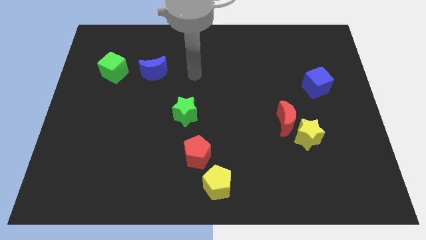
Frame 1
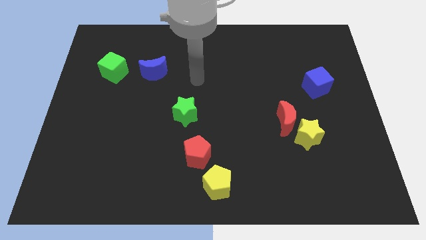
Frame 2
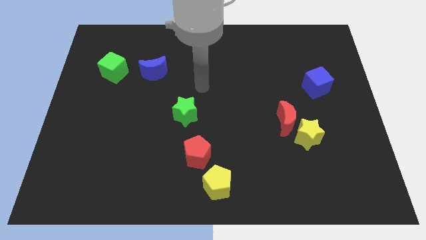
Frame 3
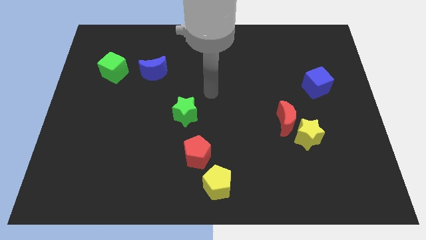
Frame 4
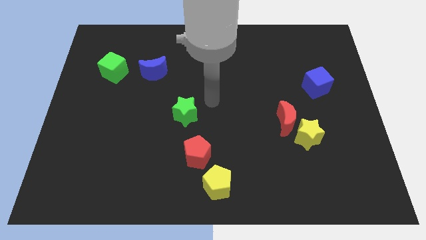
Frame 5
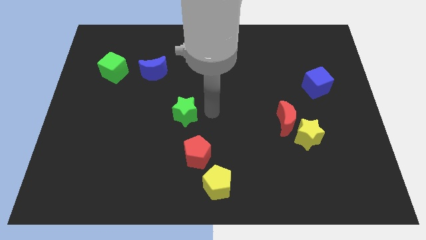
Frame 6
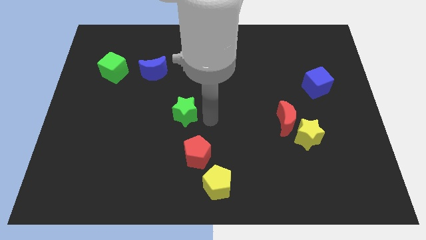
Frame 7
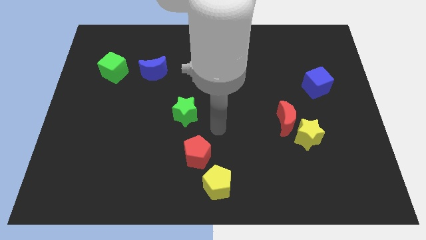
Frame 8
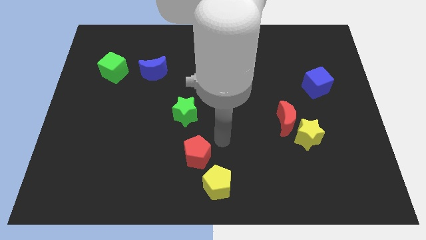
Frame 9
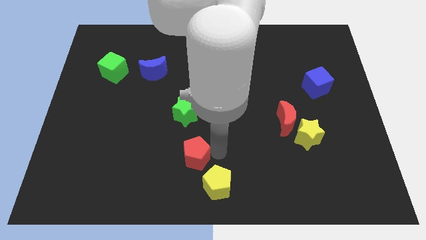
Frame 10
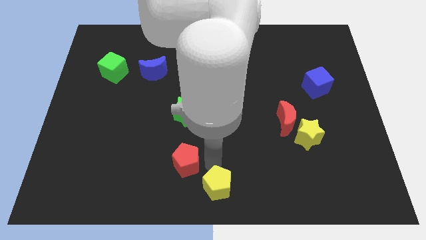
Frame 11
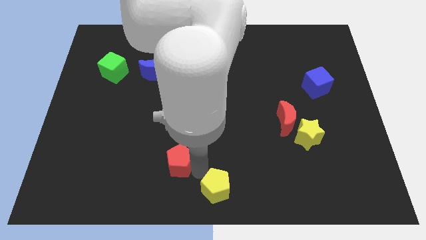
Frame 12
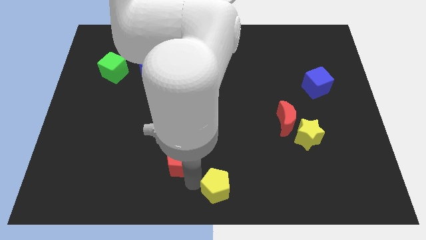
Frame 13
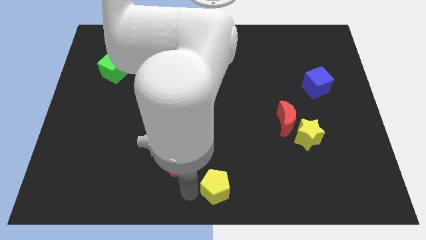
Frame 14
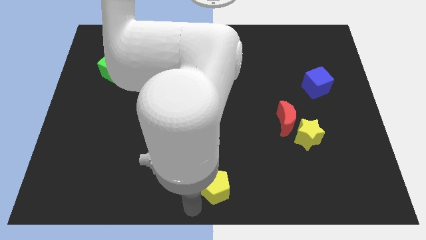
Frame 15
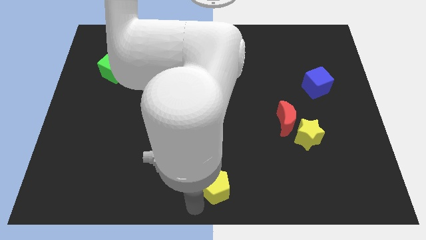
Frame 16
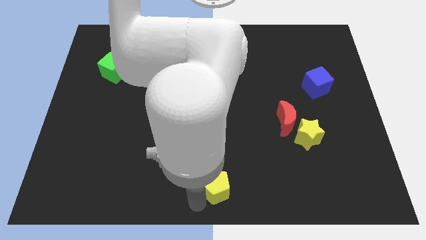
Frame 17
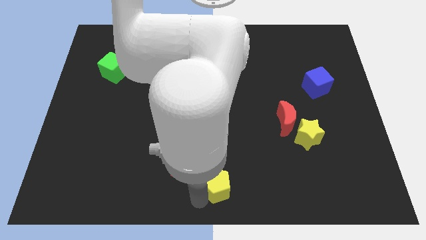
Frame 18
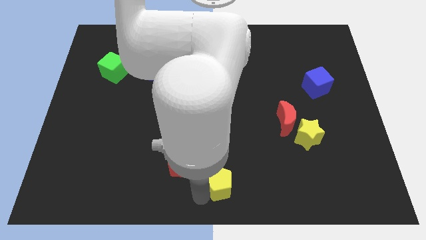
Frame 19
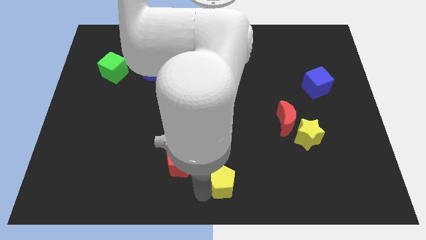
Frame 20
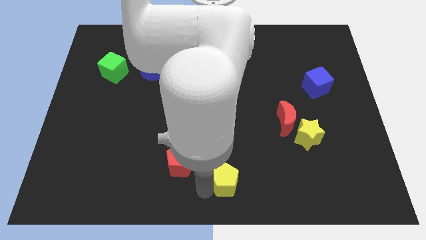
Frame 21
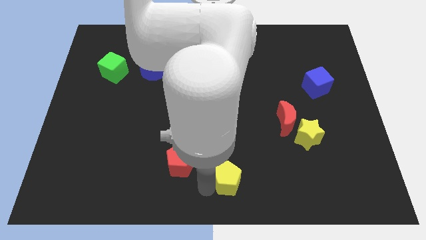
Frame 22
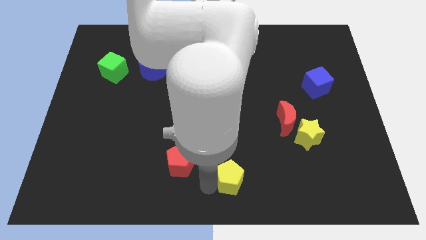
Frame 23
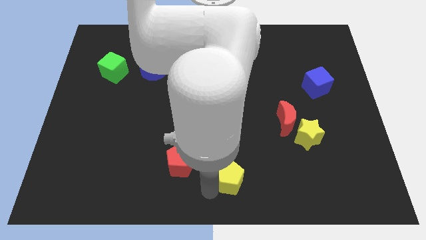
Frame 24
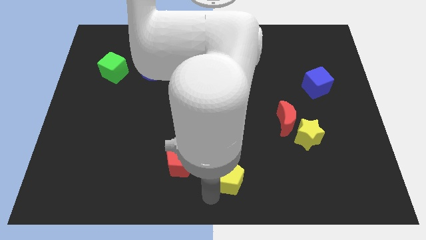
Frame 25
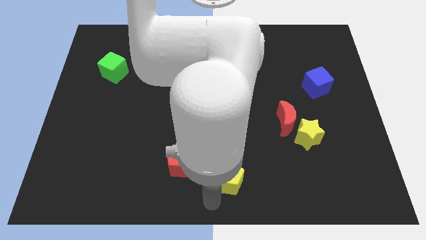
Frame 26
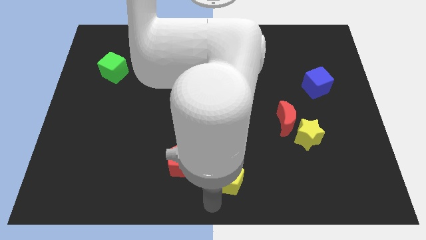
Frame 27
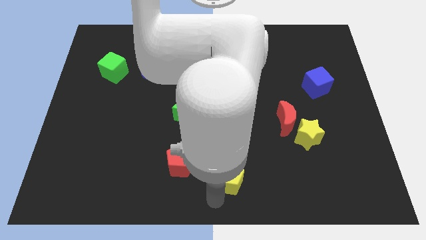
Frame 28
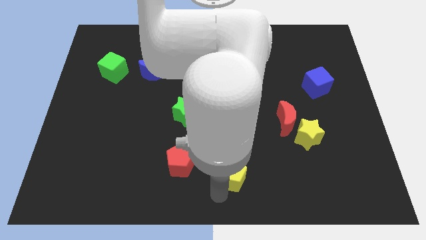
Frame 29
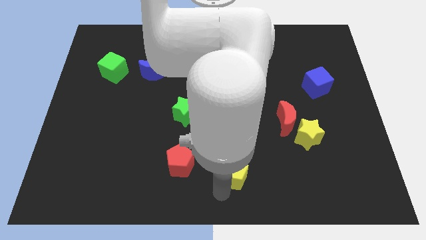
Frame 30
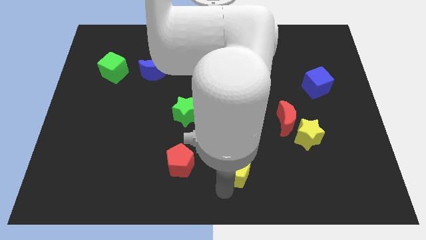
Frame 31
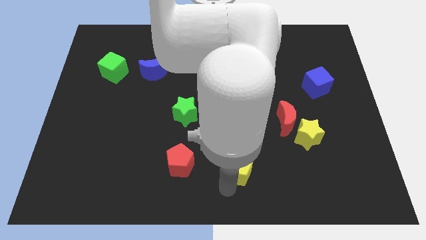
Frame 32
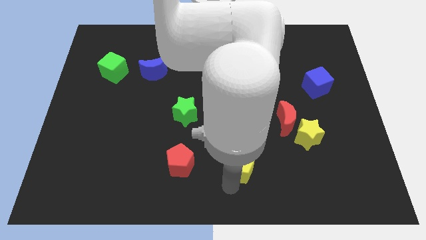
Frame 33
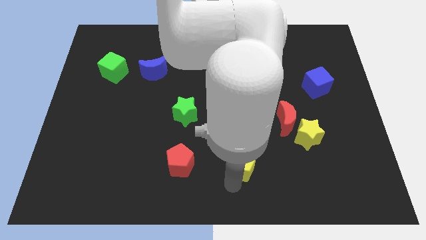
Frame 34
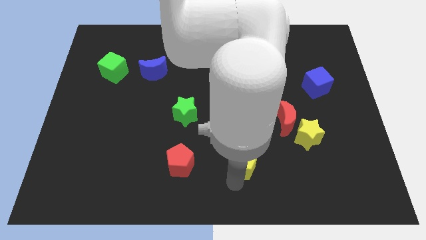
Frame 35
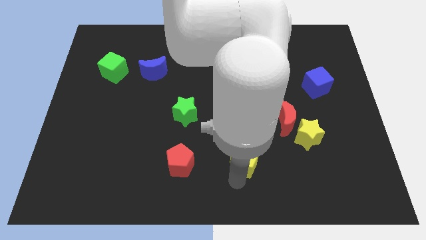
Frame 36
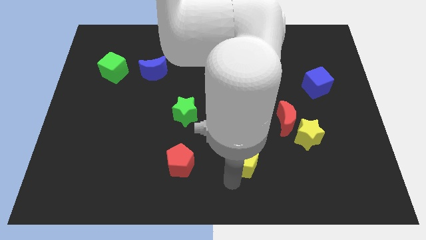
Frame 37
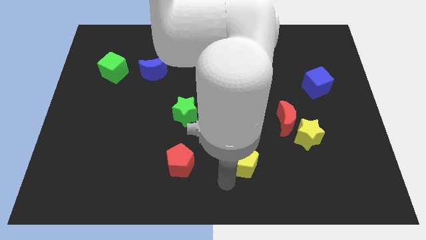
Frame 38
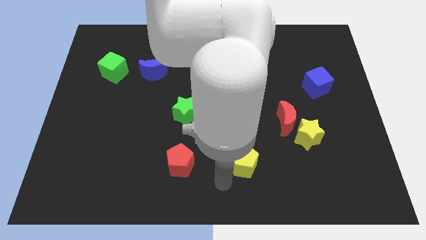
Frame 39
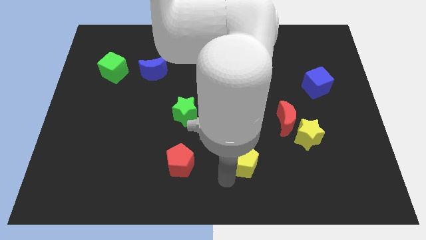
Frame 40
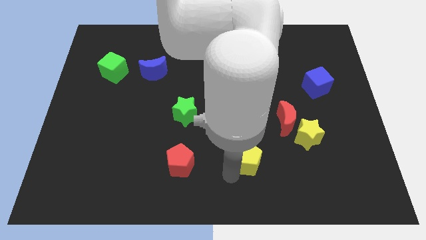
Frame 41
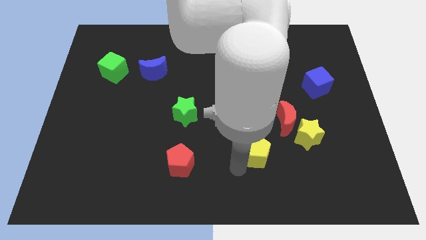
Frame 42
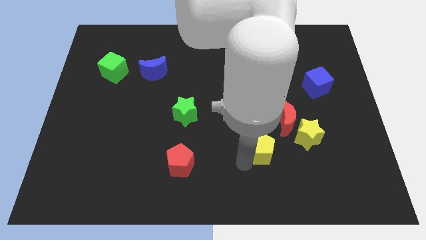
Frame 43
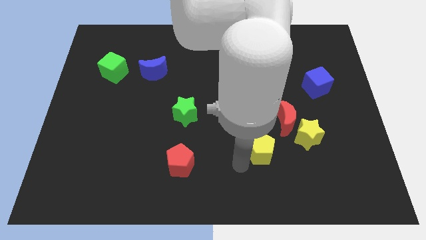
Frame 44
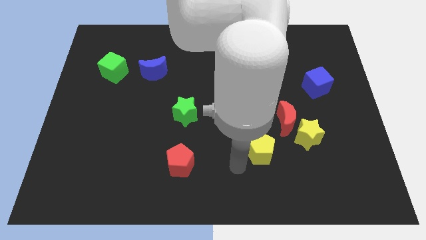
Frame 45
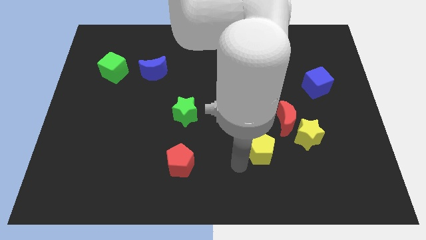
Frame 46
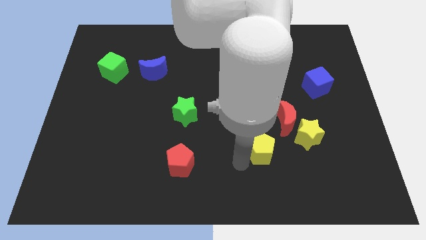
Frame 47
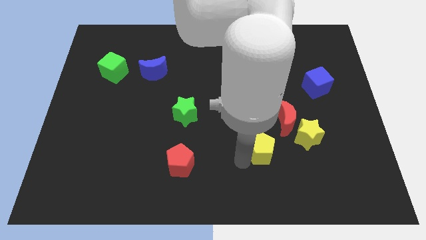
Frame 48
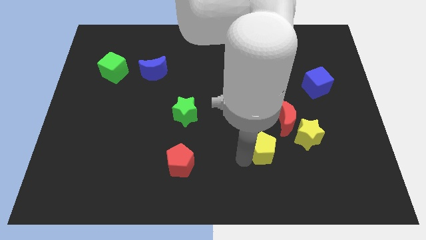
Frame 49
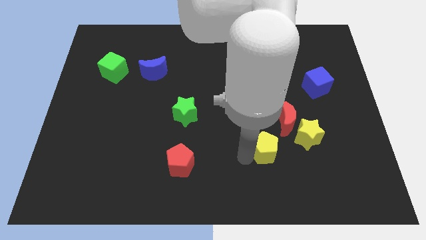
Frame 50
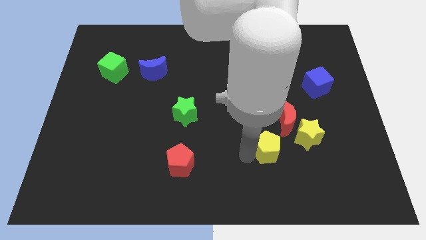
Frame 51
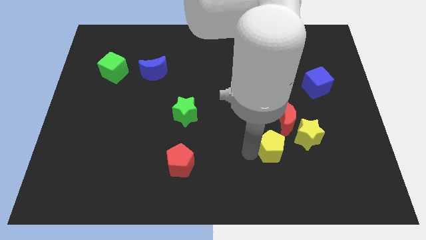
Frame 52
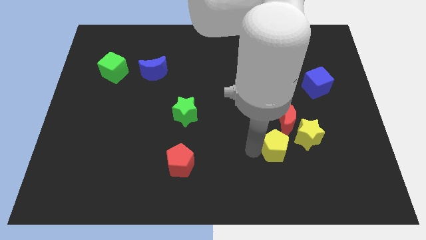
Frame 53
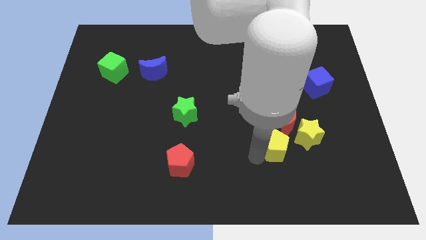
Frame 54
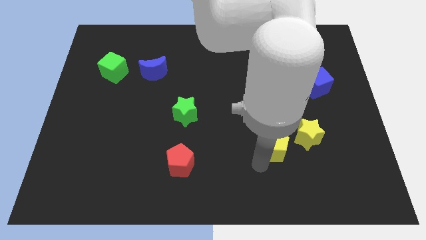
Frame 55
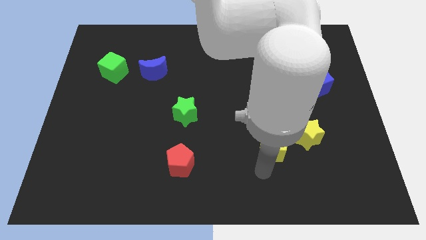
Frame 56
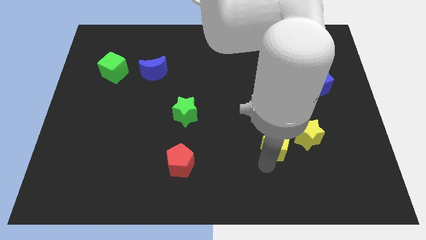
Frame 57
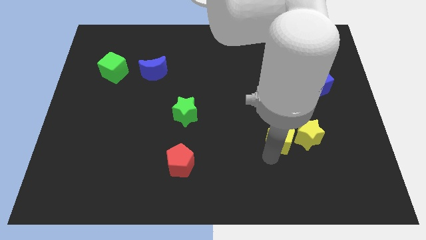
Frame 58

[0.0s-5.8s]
push the yellow pentagon to the red moon

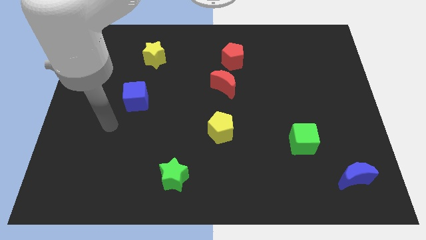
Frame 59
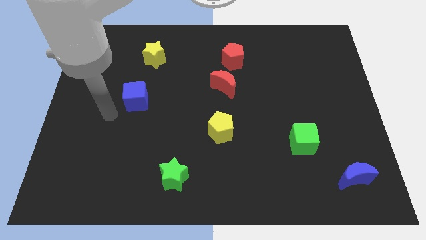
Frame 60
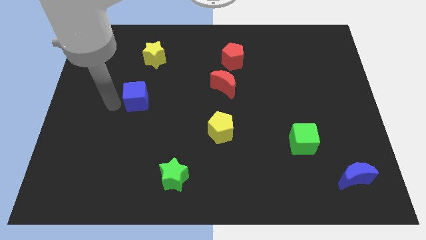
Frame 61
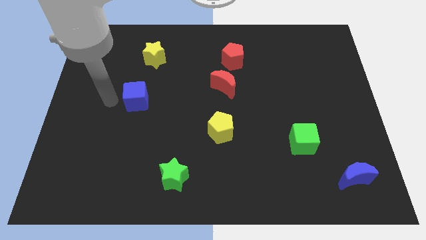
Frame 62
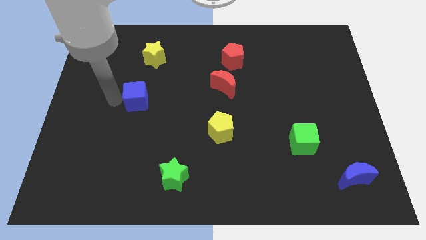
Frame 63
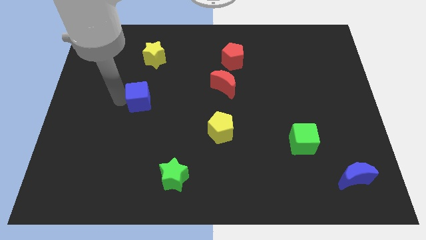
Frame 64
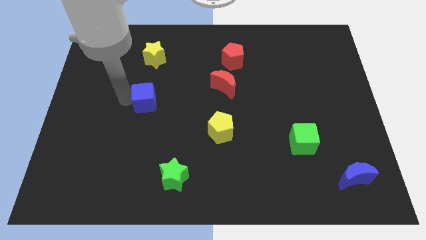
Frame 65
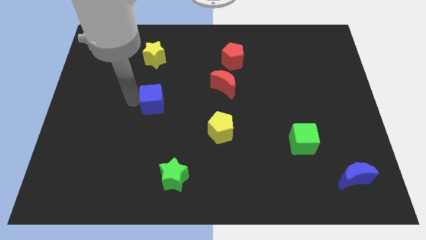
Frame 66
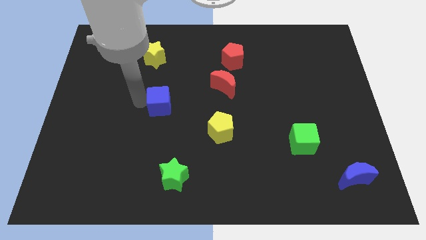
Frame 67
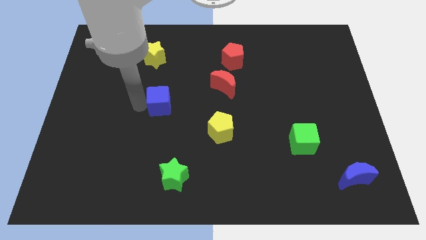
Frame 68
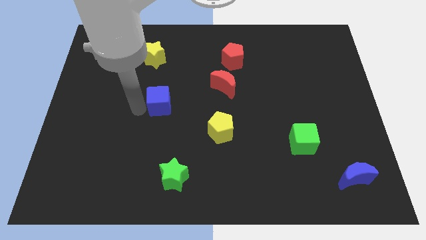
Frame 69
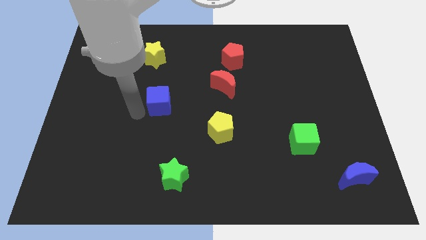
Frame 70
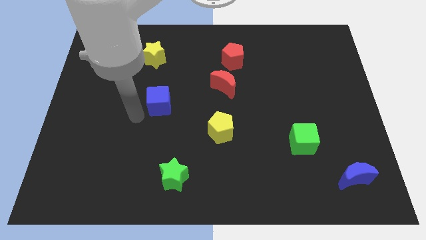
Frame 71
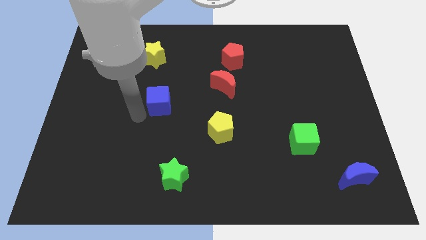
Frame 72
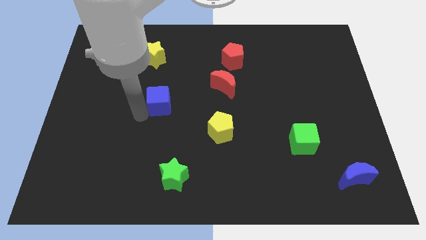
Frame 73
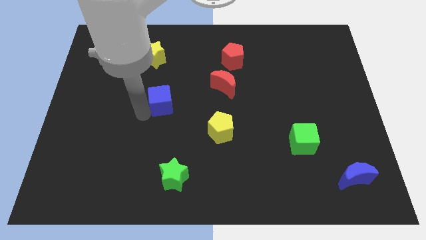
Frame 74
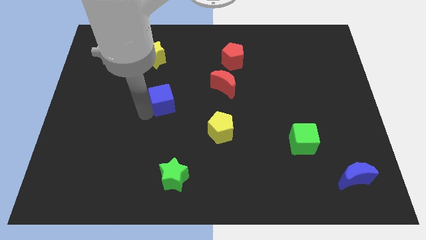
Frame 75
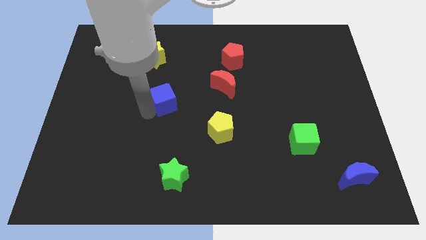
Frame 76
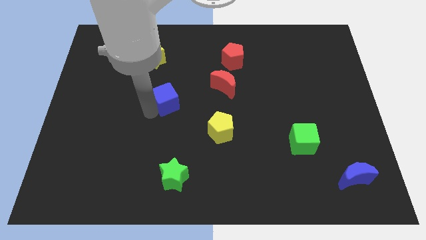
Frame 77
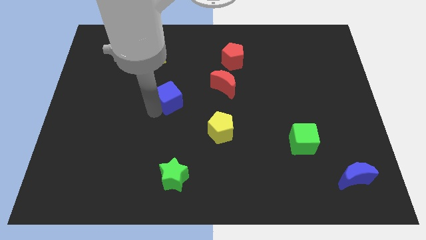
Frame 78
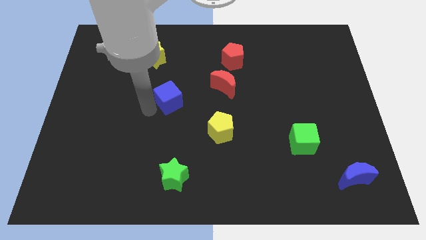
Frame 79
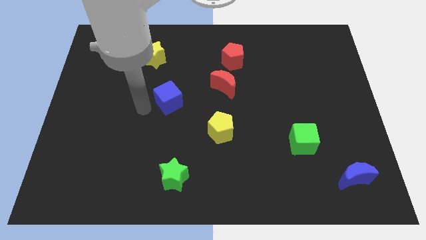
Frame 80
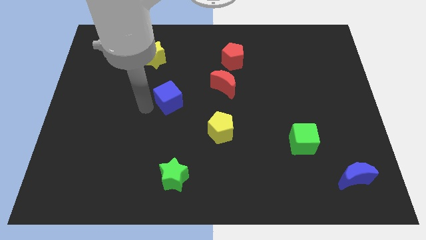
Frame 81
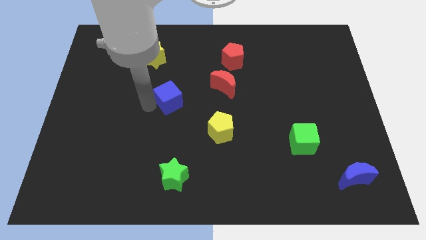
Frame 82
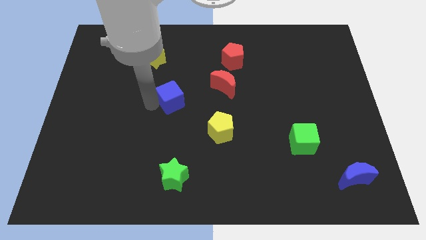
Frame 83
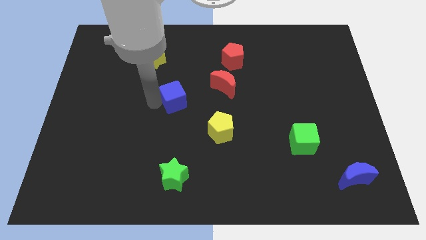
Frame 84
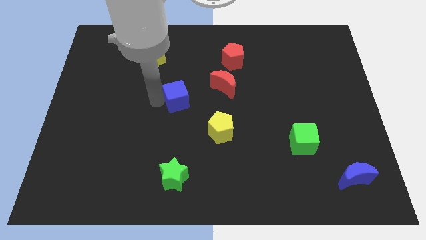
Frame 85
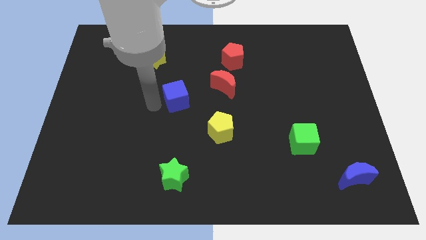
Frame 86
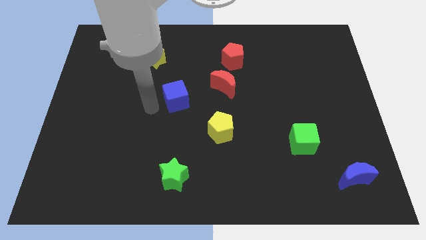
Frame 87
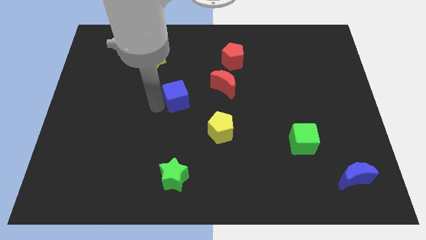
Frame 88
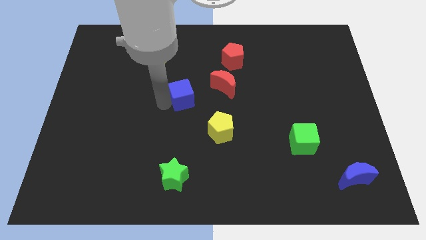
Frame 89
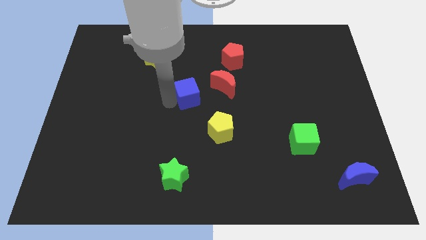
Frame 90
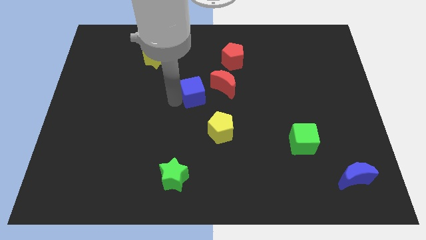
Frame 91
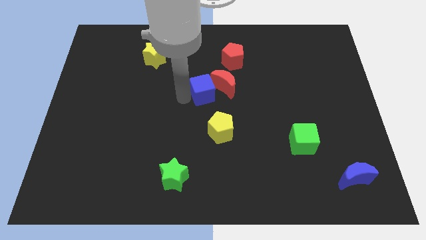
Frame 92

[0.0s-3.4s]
put the blue cube to the red moon
